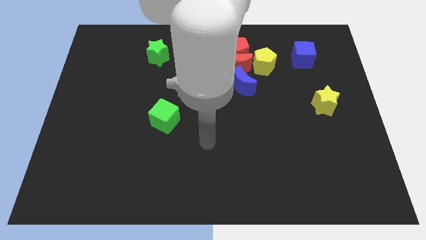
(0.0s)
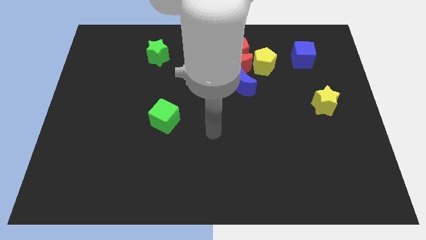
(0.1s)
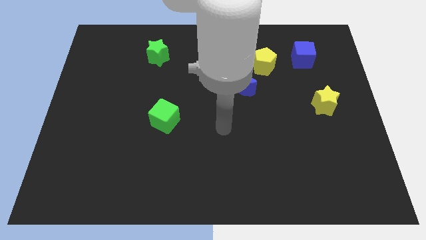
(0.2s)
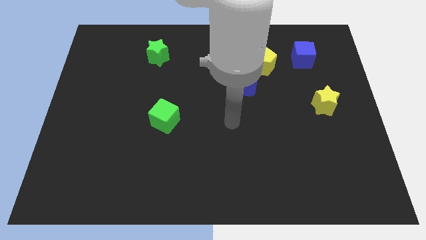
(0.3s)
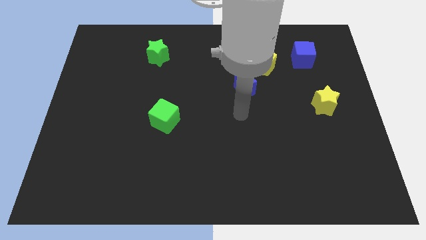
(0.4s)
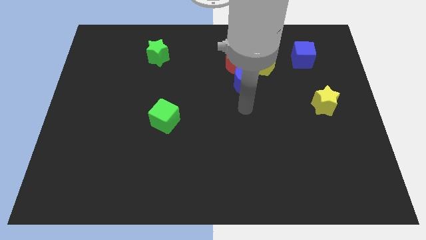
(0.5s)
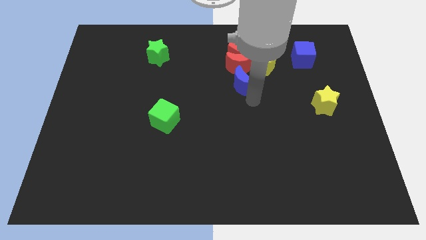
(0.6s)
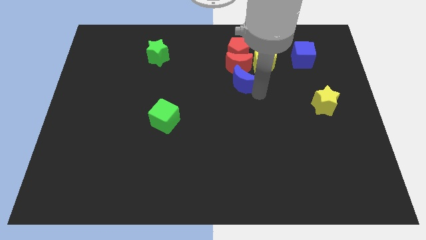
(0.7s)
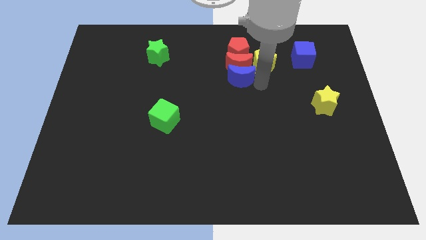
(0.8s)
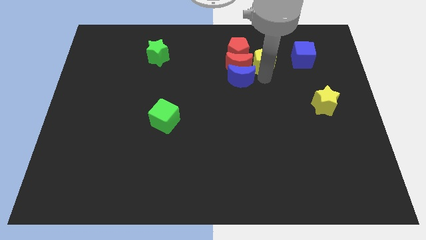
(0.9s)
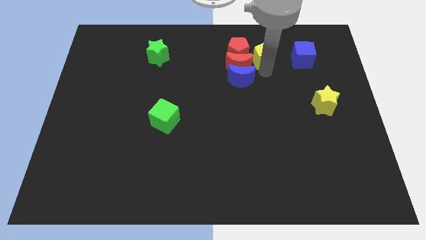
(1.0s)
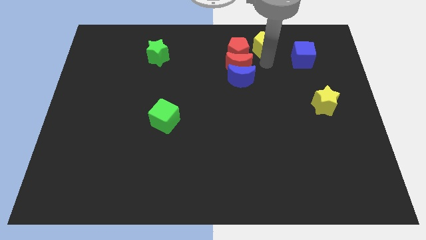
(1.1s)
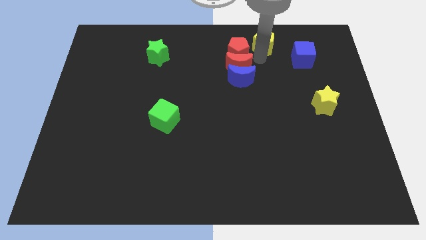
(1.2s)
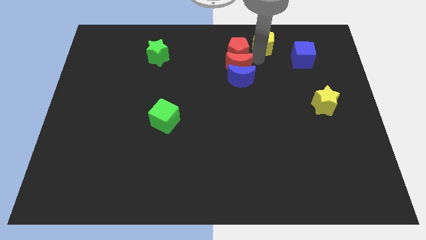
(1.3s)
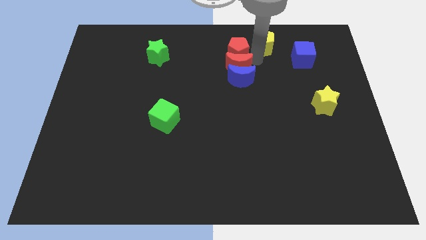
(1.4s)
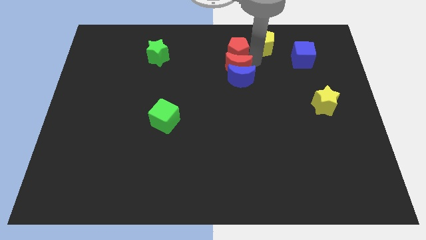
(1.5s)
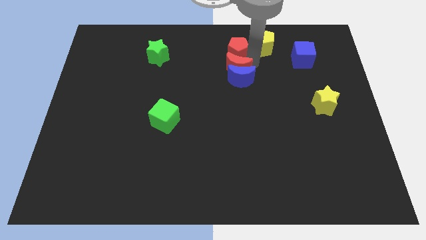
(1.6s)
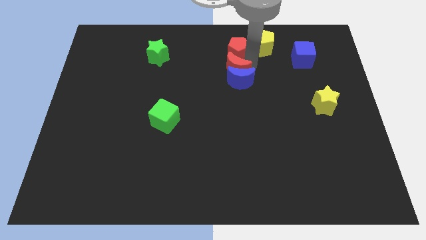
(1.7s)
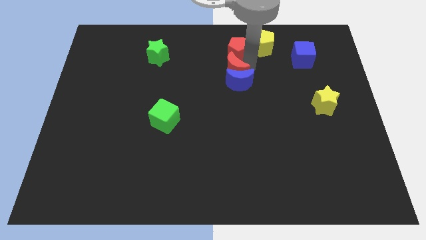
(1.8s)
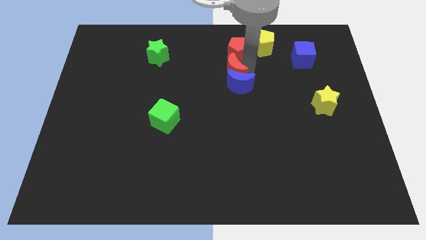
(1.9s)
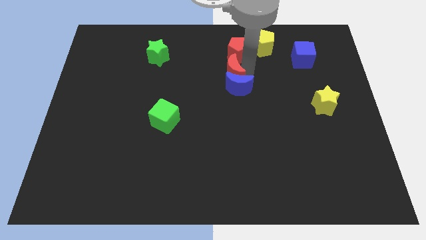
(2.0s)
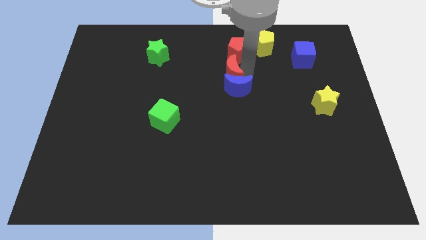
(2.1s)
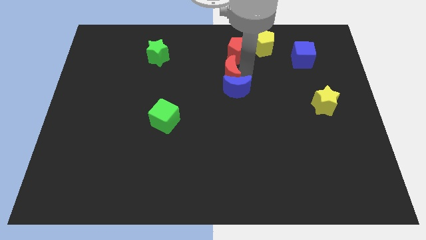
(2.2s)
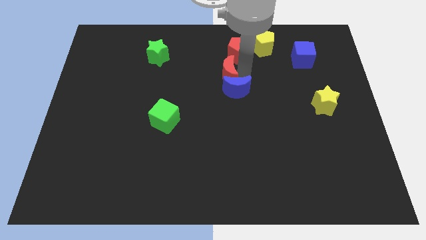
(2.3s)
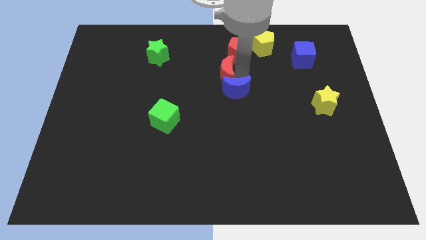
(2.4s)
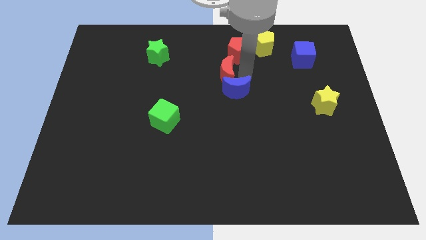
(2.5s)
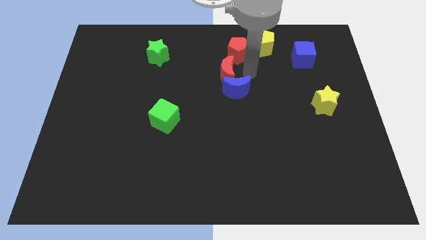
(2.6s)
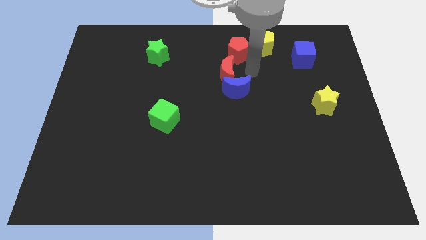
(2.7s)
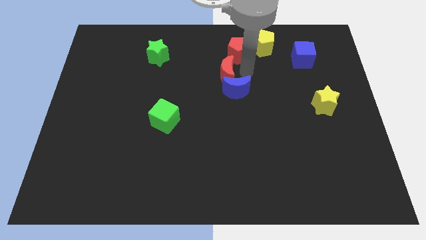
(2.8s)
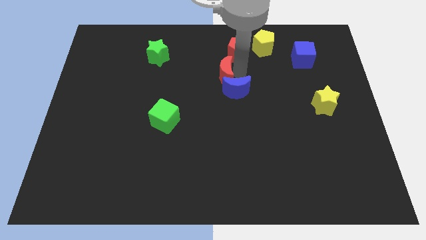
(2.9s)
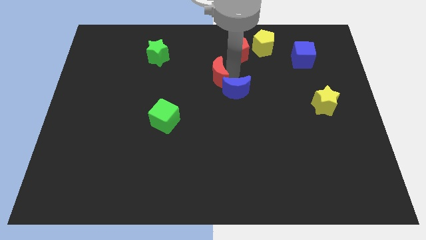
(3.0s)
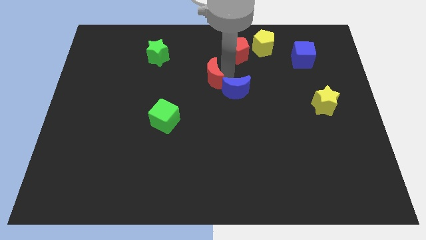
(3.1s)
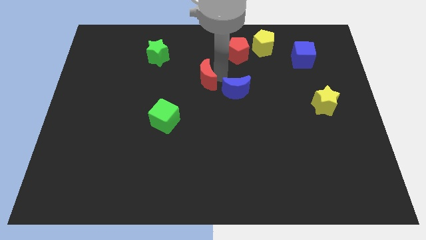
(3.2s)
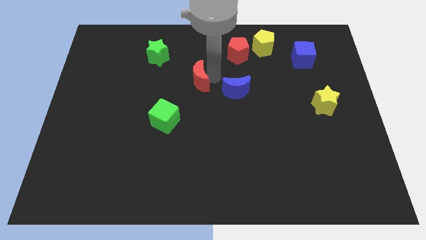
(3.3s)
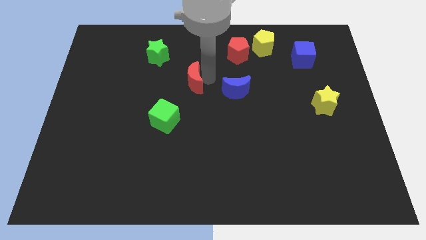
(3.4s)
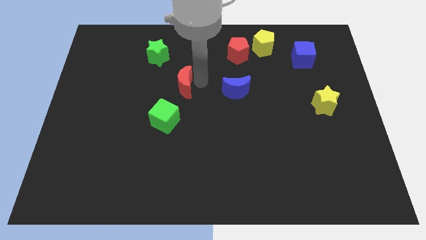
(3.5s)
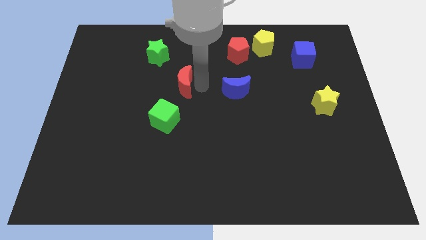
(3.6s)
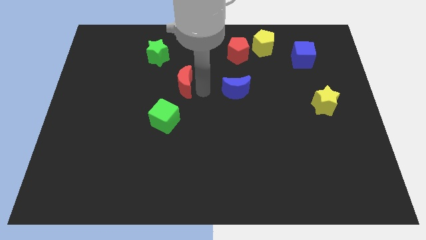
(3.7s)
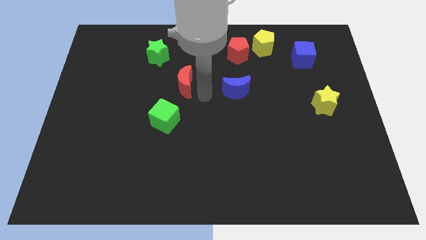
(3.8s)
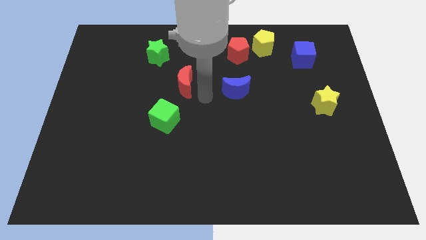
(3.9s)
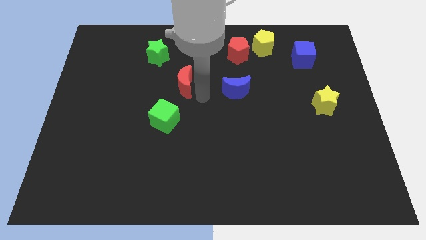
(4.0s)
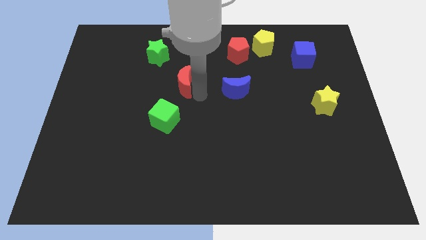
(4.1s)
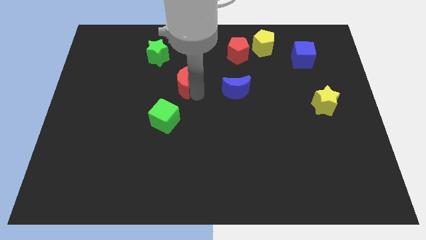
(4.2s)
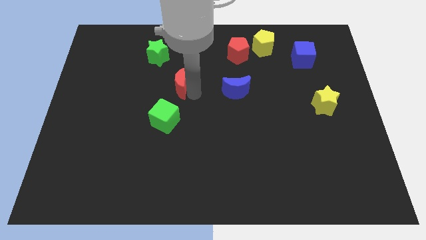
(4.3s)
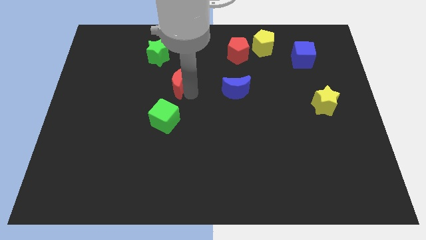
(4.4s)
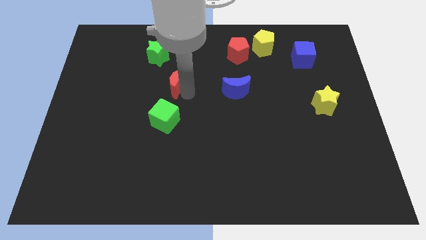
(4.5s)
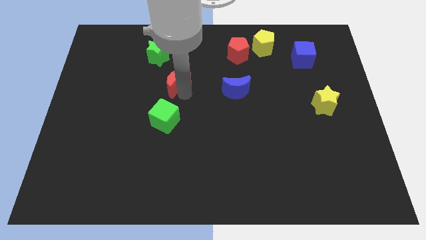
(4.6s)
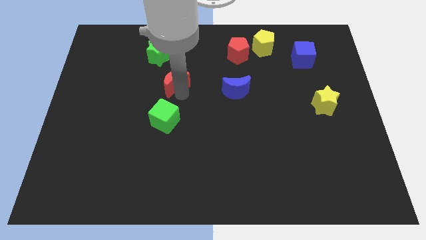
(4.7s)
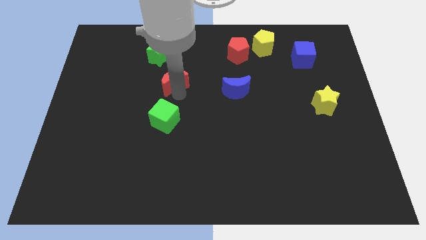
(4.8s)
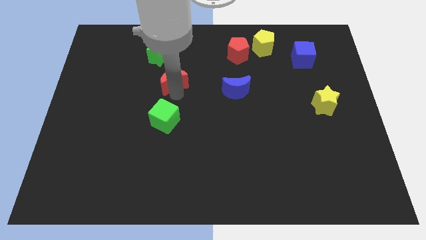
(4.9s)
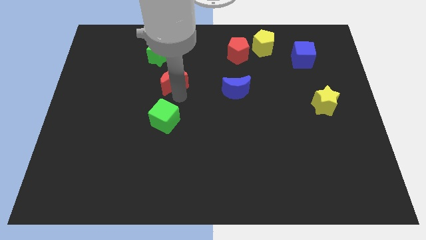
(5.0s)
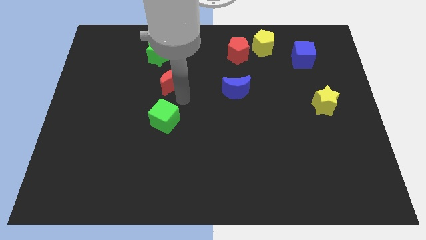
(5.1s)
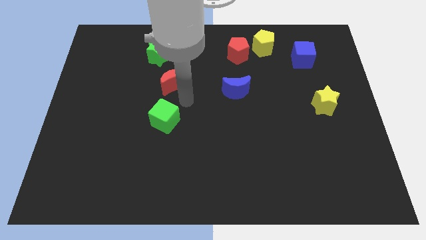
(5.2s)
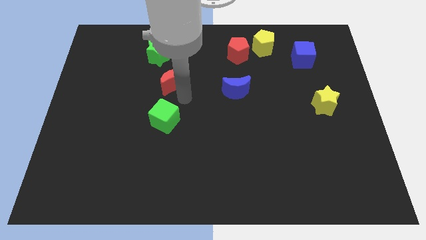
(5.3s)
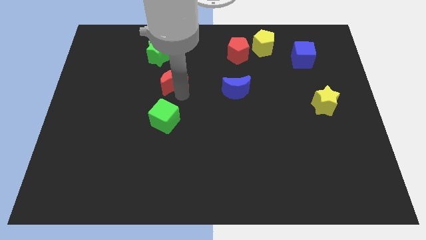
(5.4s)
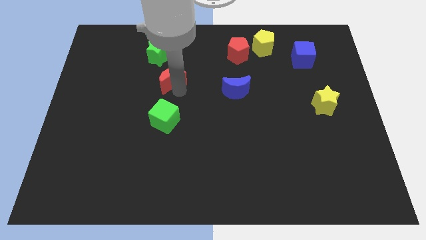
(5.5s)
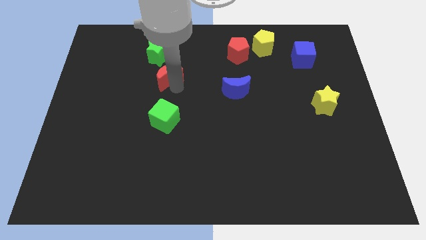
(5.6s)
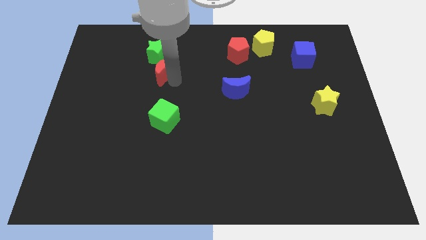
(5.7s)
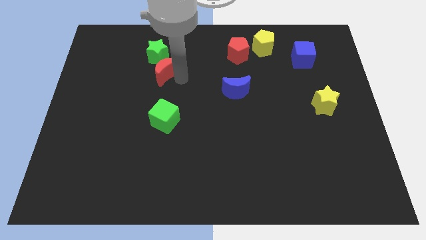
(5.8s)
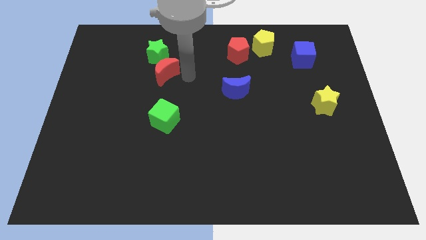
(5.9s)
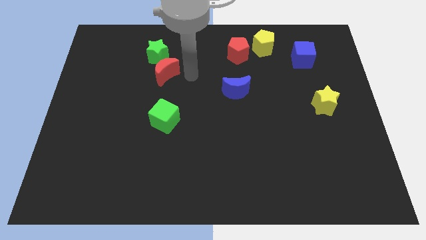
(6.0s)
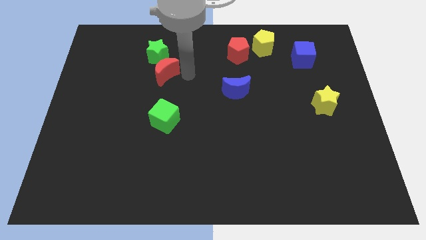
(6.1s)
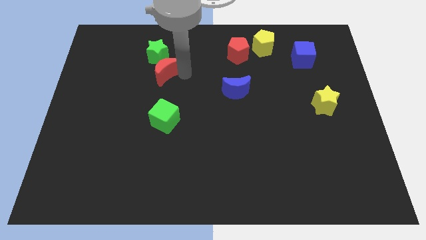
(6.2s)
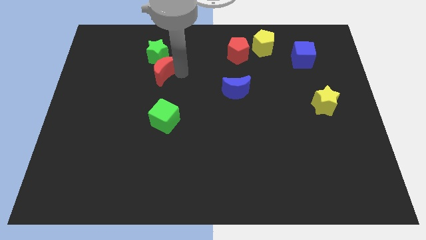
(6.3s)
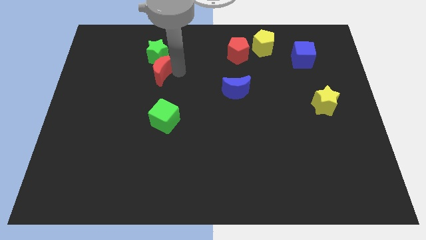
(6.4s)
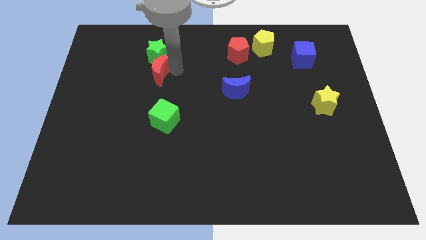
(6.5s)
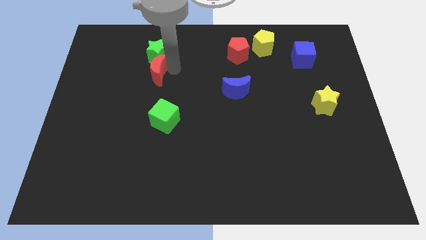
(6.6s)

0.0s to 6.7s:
slide the red moon to the bottom left of the green star
